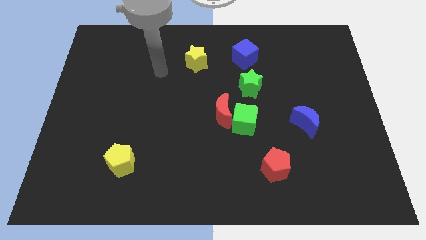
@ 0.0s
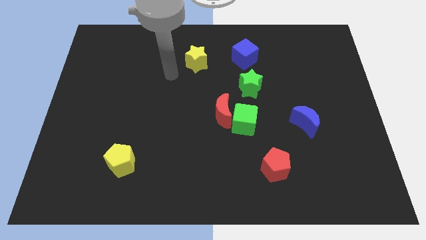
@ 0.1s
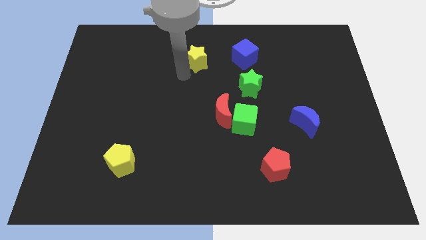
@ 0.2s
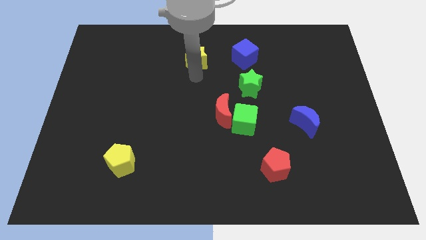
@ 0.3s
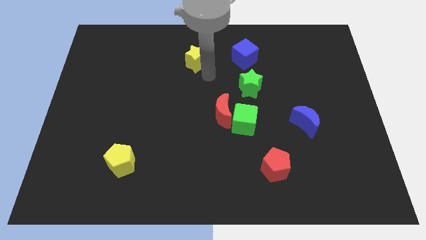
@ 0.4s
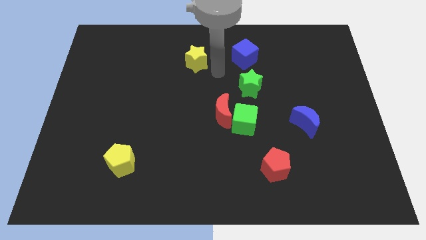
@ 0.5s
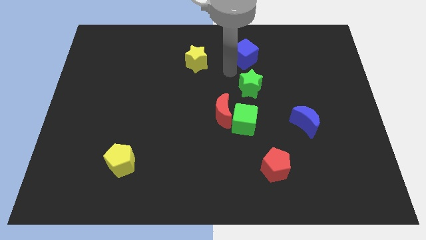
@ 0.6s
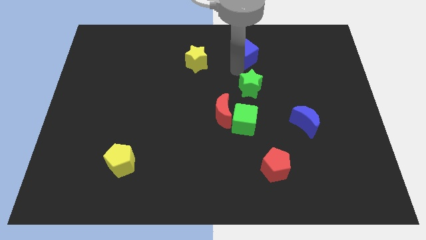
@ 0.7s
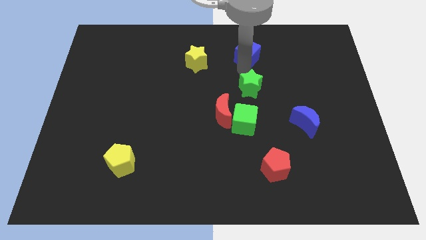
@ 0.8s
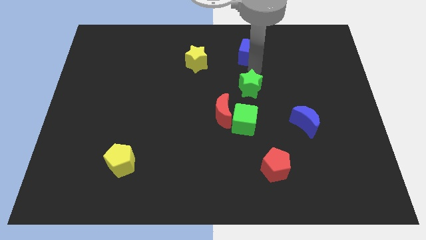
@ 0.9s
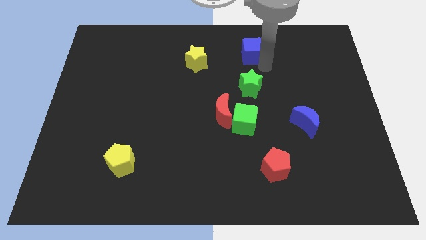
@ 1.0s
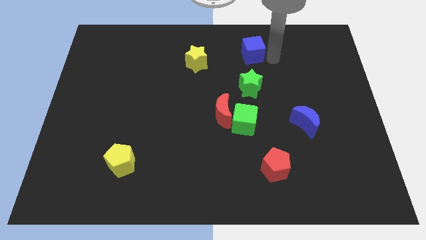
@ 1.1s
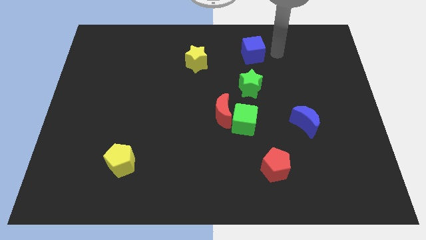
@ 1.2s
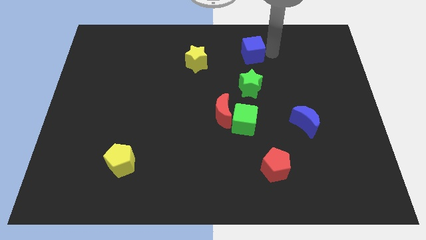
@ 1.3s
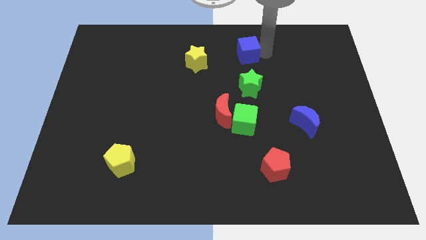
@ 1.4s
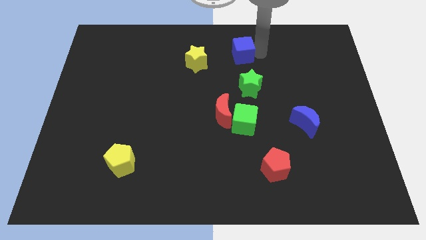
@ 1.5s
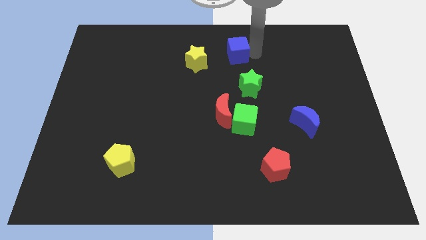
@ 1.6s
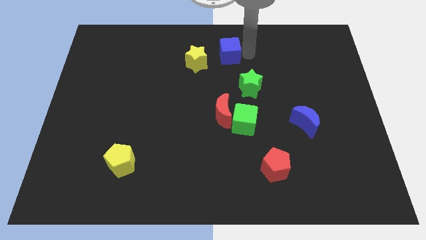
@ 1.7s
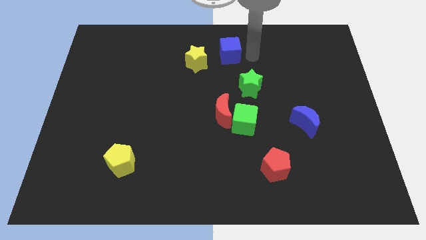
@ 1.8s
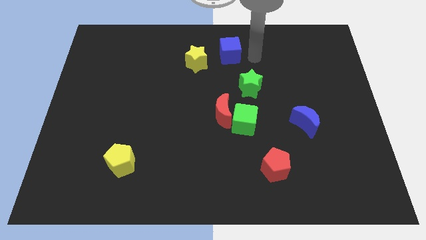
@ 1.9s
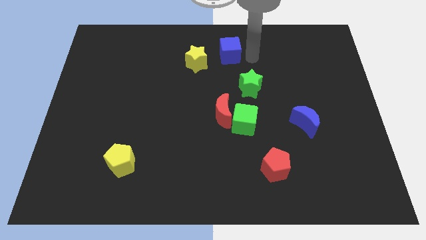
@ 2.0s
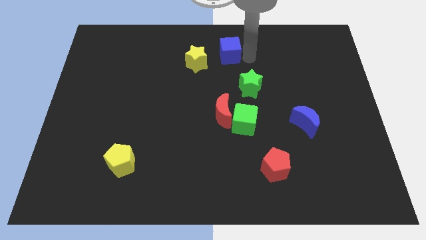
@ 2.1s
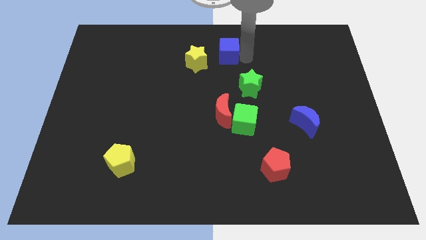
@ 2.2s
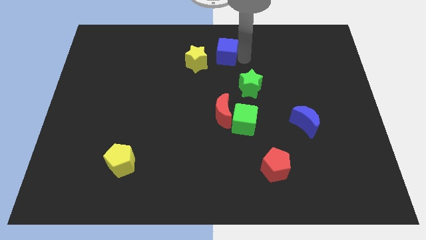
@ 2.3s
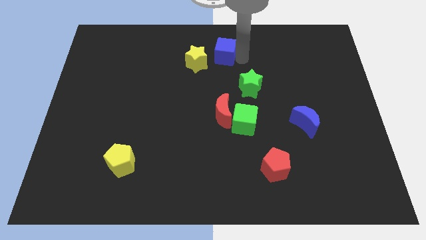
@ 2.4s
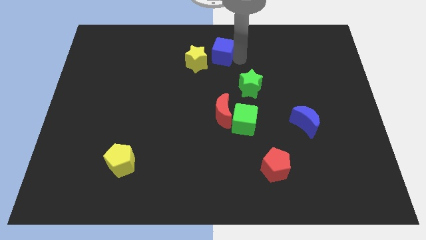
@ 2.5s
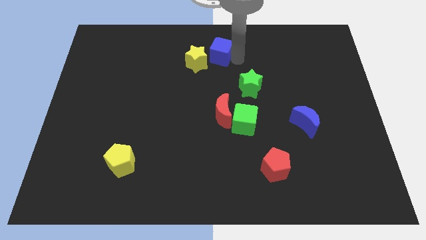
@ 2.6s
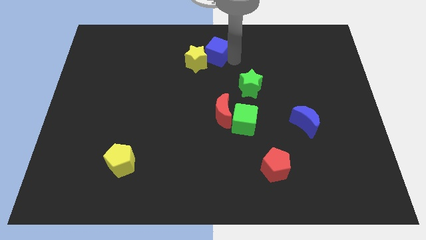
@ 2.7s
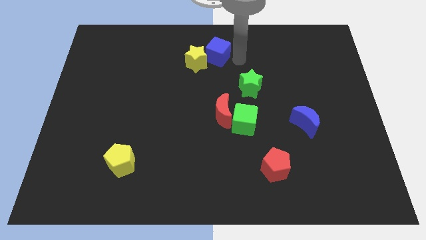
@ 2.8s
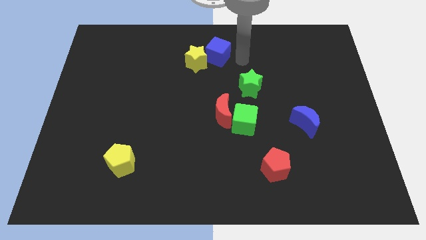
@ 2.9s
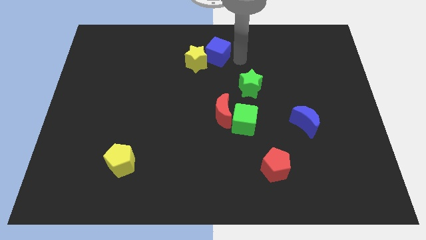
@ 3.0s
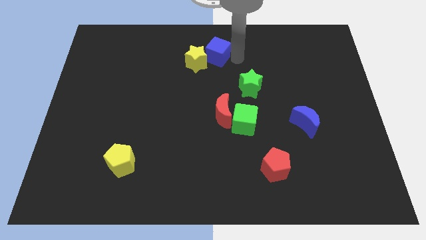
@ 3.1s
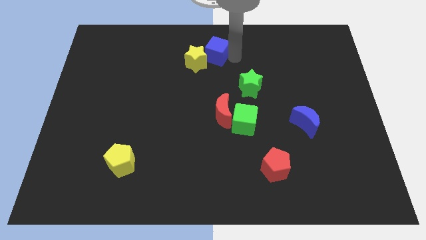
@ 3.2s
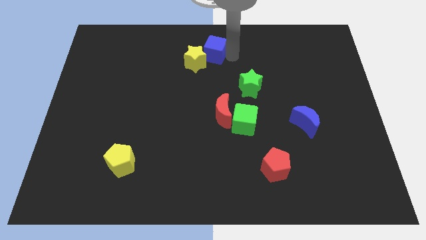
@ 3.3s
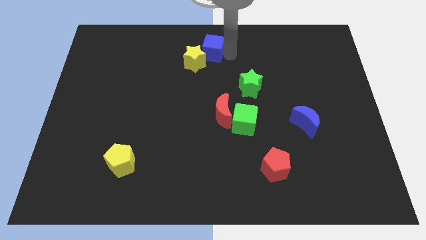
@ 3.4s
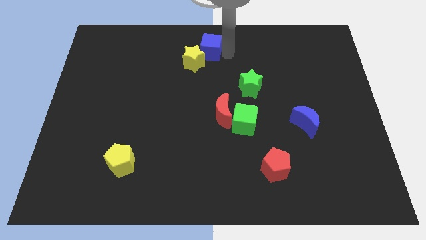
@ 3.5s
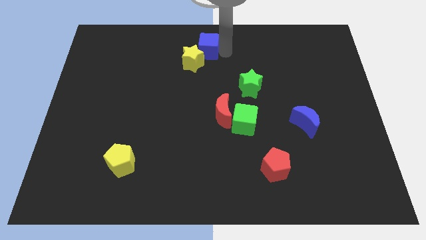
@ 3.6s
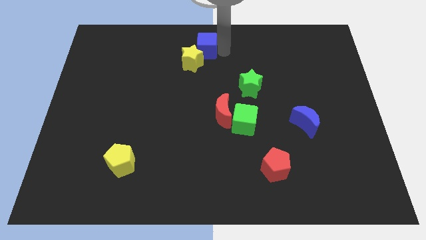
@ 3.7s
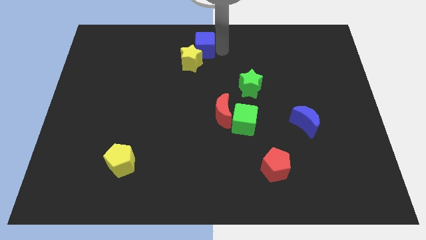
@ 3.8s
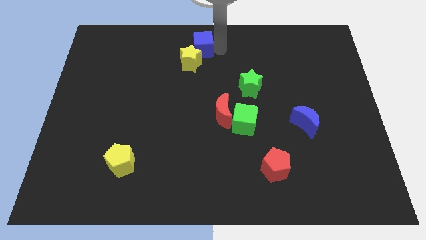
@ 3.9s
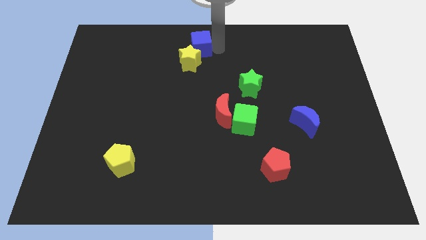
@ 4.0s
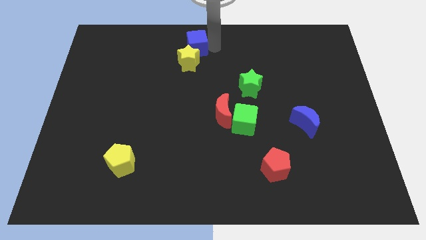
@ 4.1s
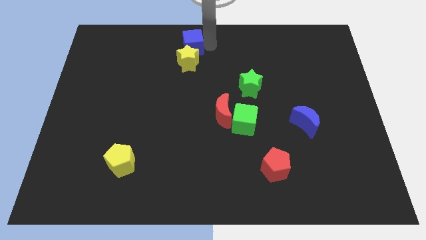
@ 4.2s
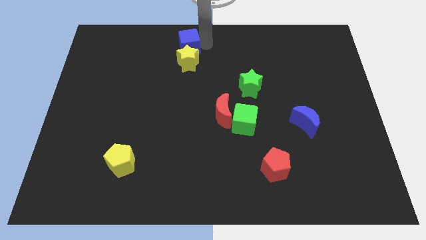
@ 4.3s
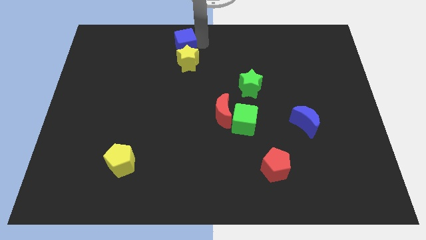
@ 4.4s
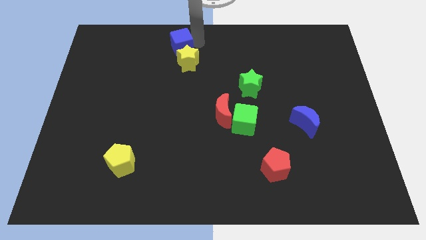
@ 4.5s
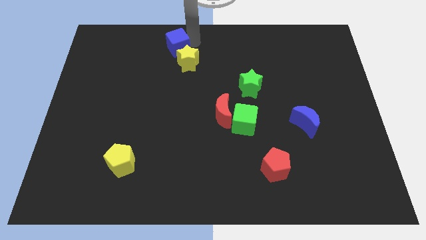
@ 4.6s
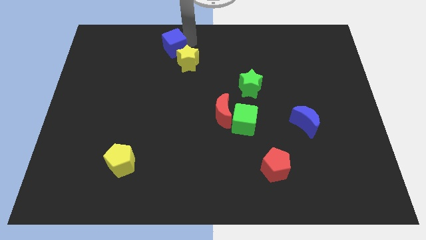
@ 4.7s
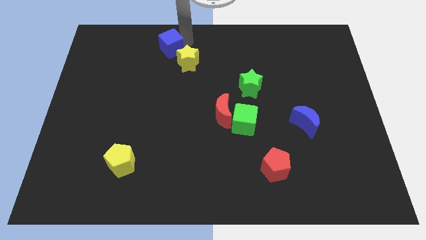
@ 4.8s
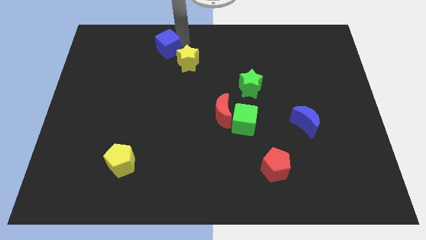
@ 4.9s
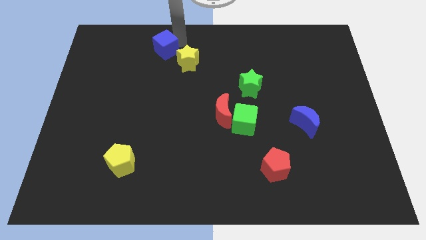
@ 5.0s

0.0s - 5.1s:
slide the blue cube to the left of the yellow star

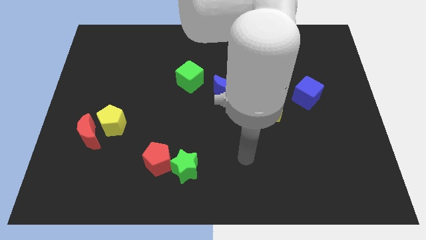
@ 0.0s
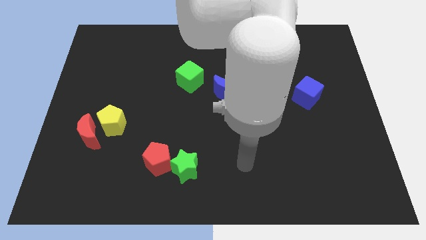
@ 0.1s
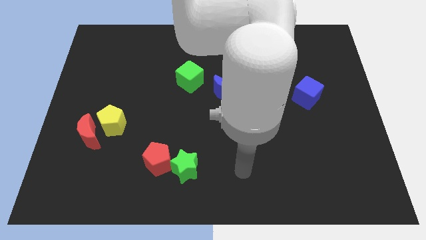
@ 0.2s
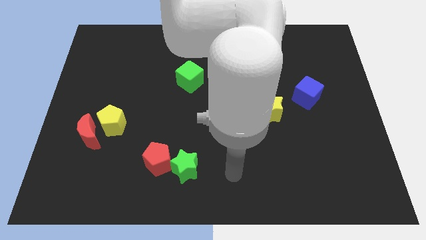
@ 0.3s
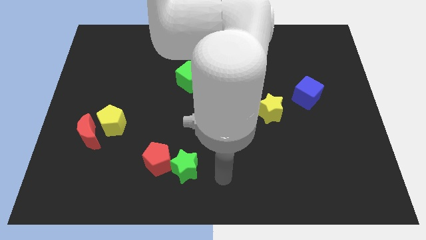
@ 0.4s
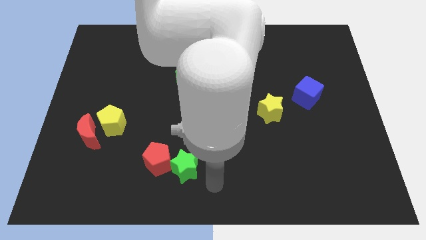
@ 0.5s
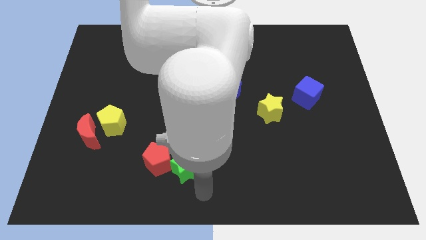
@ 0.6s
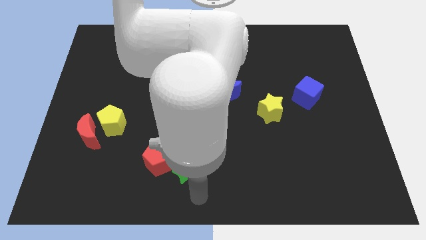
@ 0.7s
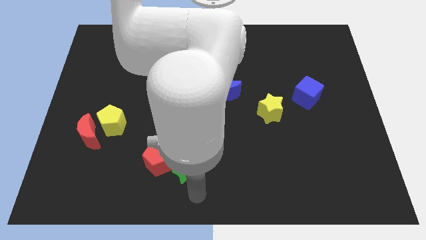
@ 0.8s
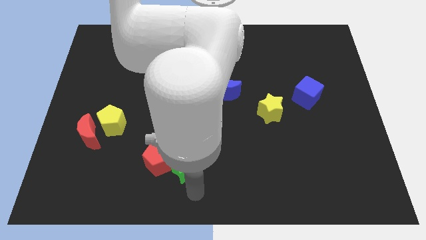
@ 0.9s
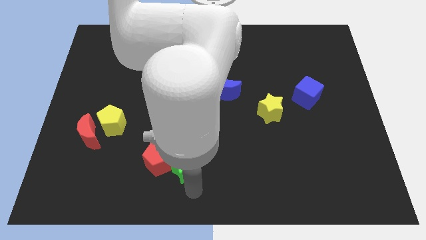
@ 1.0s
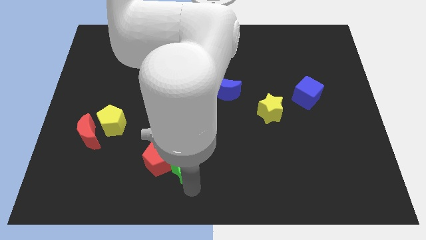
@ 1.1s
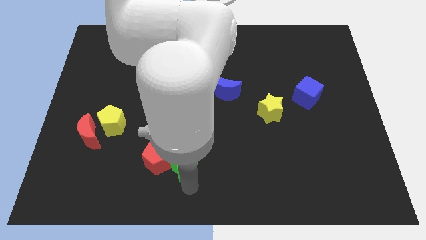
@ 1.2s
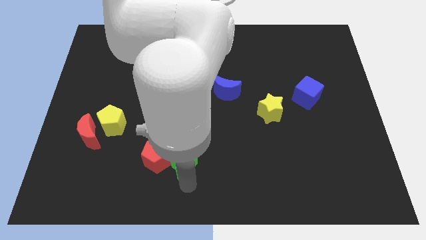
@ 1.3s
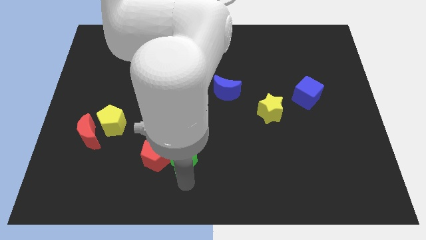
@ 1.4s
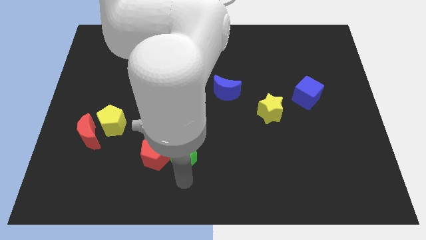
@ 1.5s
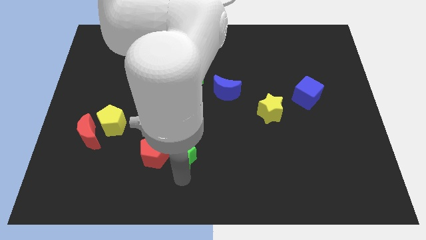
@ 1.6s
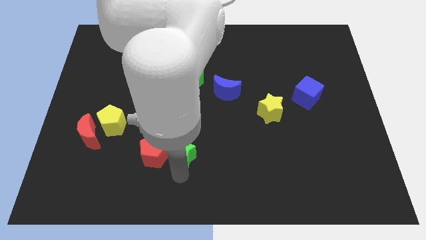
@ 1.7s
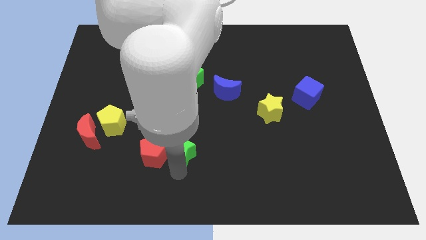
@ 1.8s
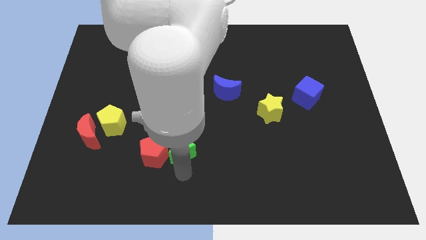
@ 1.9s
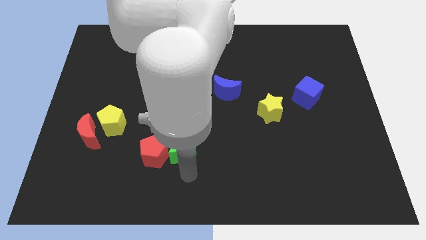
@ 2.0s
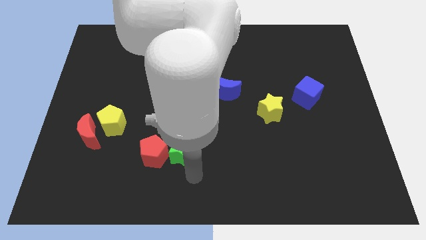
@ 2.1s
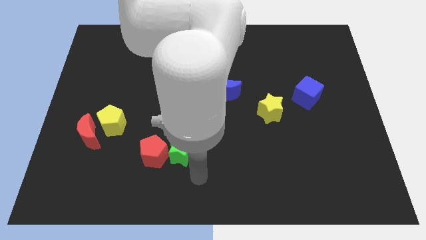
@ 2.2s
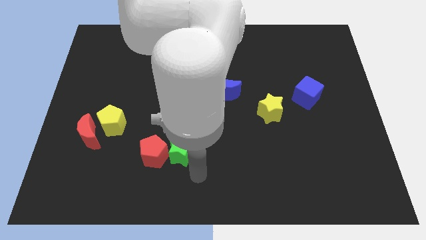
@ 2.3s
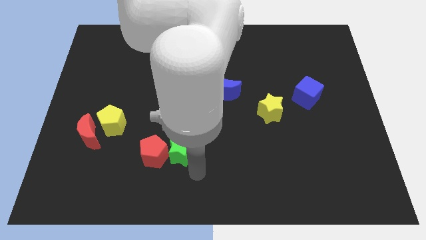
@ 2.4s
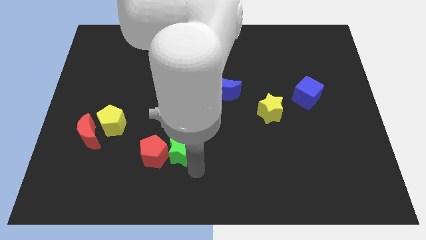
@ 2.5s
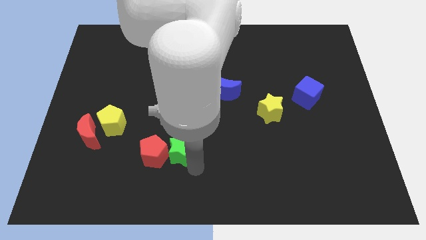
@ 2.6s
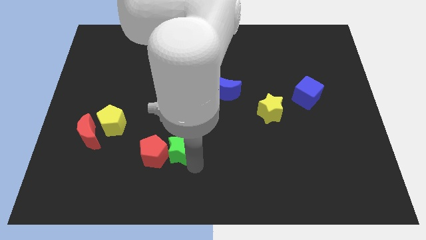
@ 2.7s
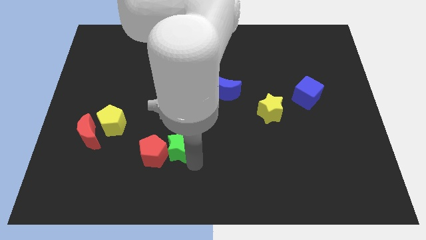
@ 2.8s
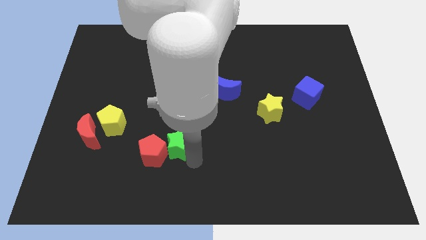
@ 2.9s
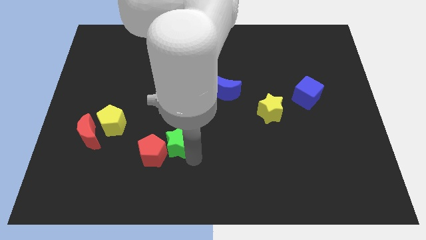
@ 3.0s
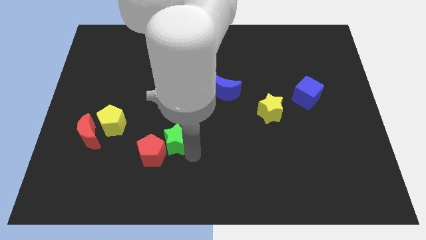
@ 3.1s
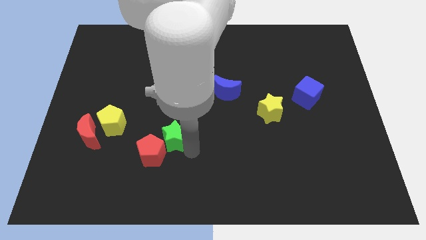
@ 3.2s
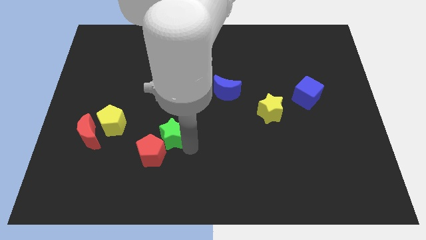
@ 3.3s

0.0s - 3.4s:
push the green star to the top of the red pentagon
